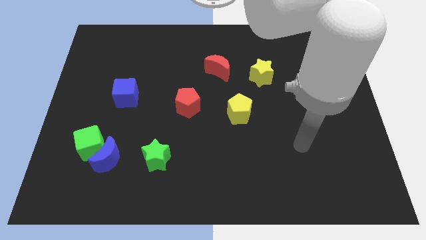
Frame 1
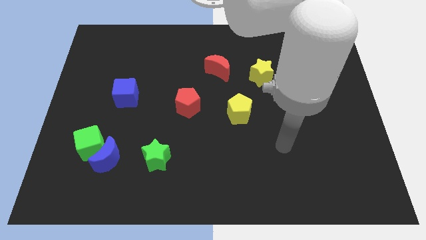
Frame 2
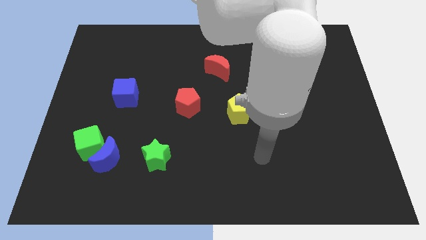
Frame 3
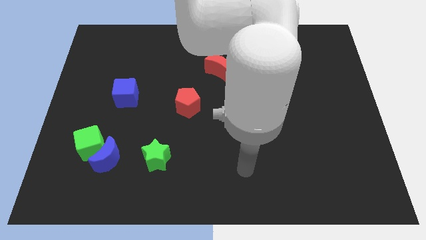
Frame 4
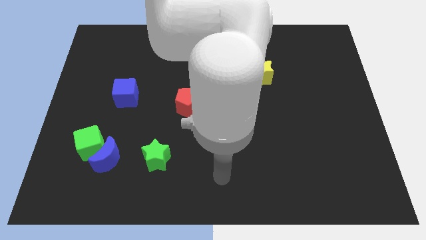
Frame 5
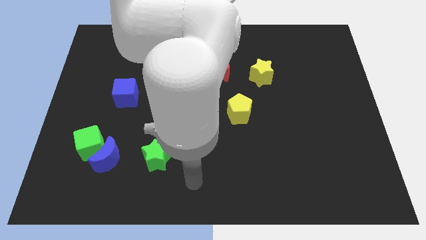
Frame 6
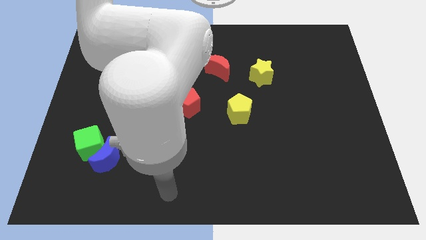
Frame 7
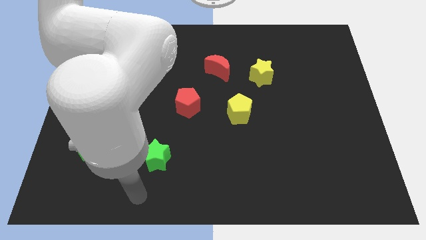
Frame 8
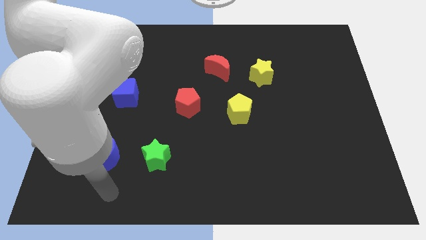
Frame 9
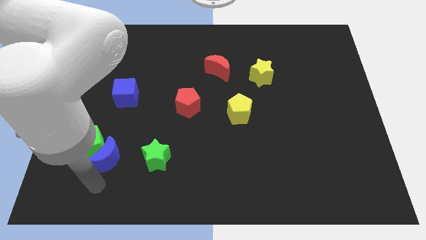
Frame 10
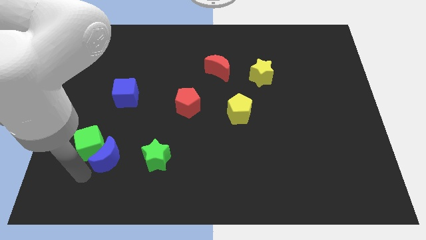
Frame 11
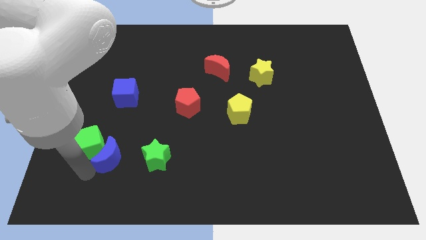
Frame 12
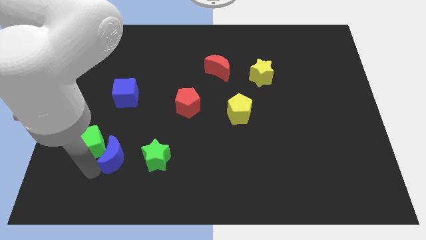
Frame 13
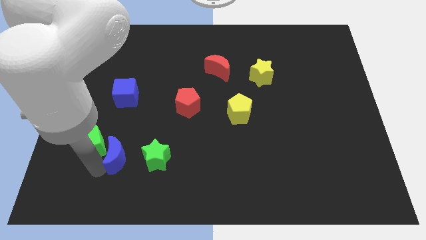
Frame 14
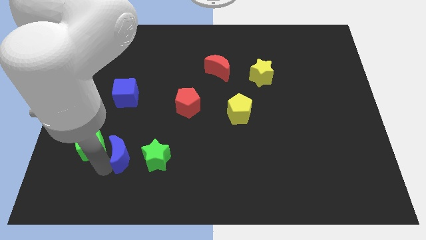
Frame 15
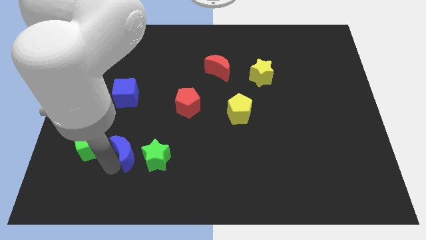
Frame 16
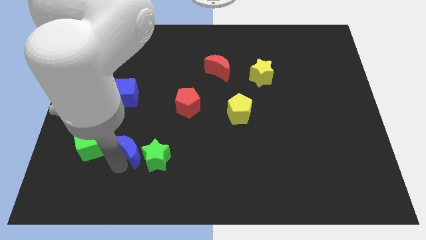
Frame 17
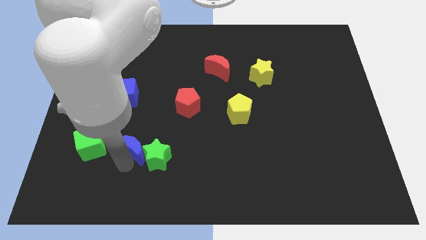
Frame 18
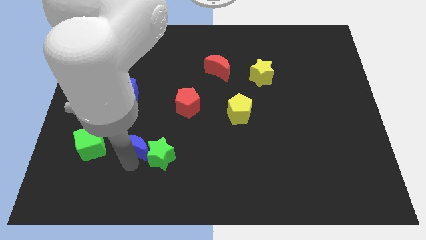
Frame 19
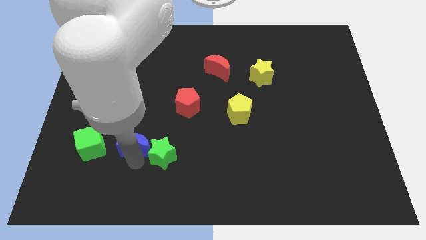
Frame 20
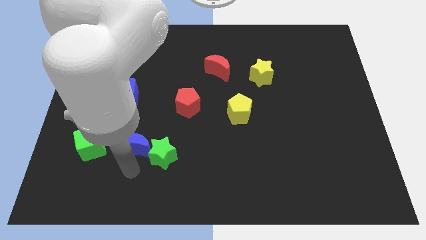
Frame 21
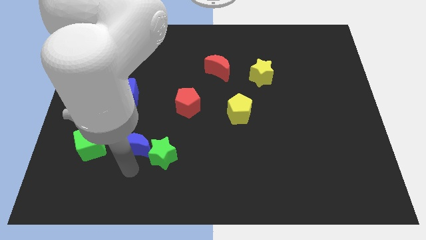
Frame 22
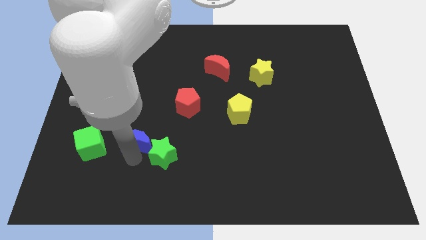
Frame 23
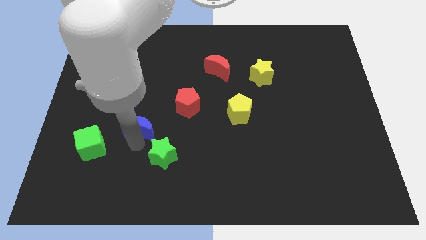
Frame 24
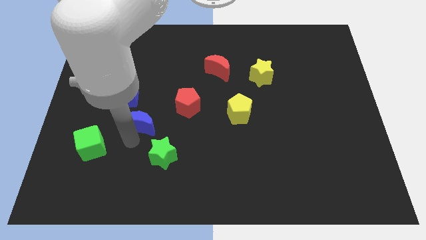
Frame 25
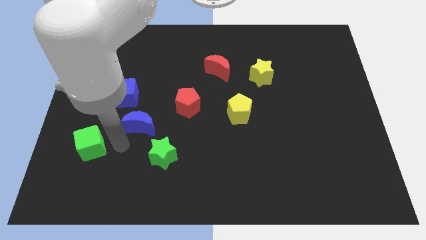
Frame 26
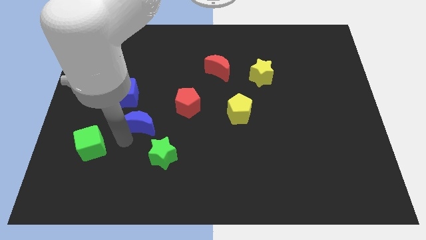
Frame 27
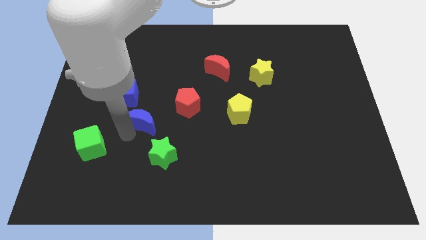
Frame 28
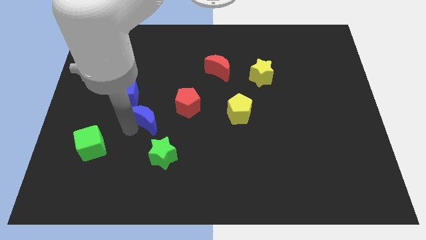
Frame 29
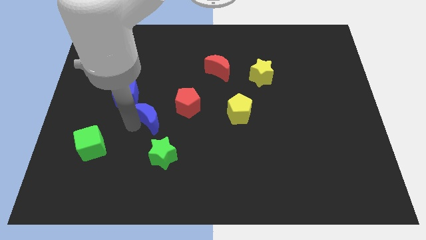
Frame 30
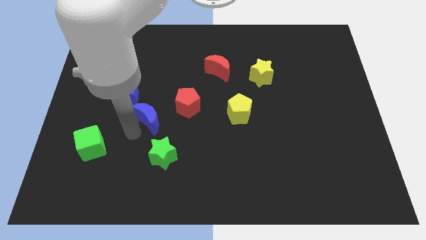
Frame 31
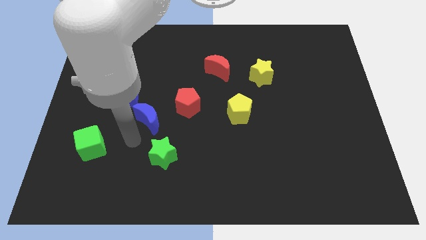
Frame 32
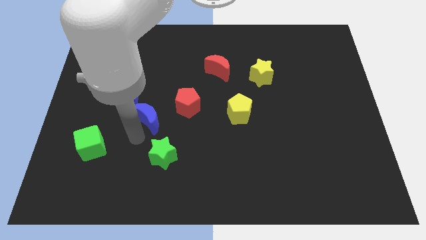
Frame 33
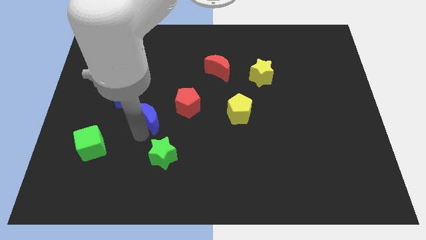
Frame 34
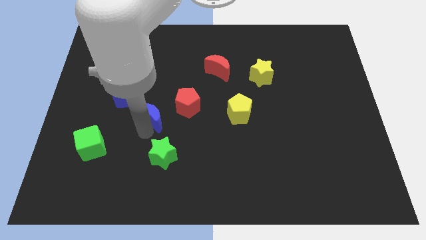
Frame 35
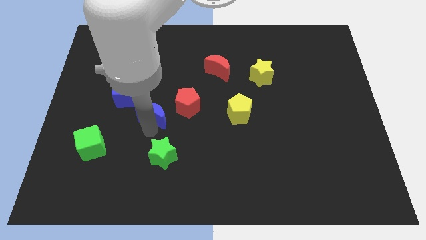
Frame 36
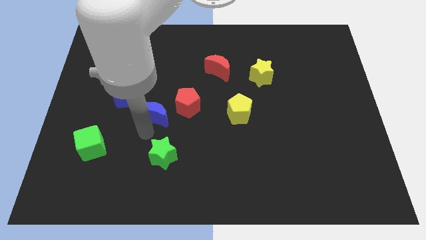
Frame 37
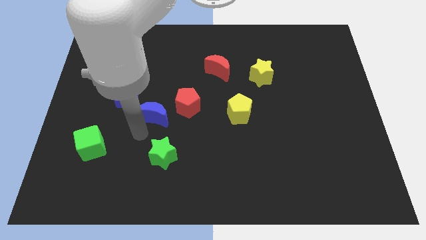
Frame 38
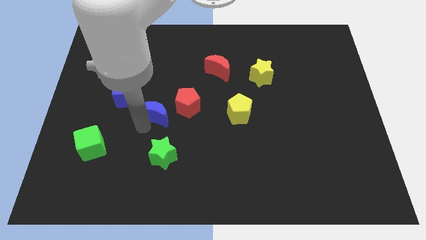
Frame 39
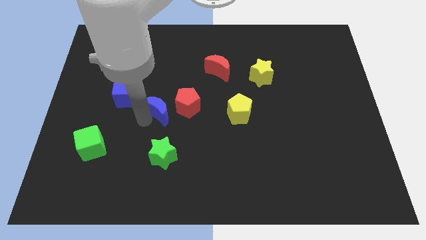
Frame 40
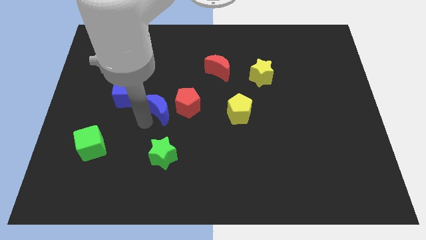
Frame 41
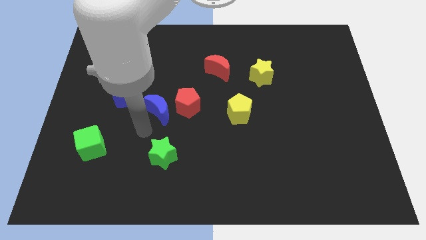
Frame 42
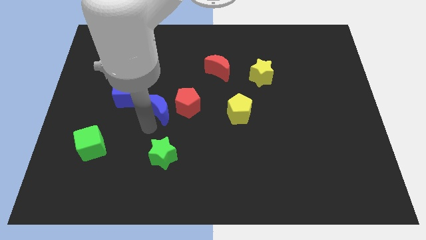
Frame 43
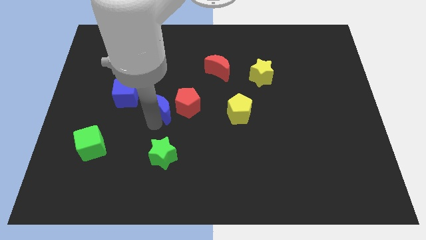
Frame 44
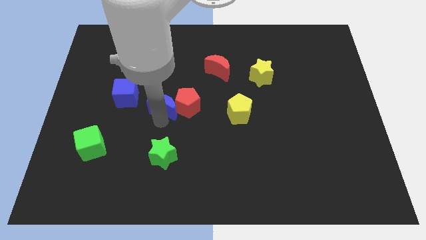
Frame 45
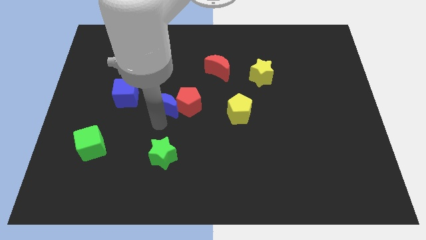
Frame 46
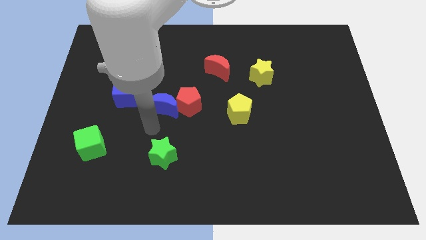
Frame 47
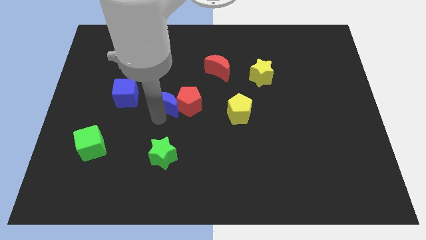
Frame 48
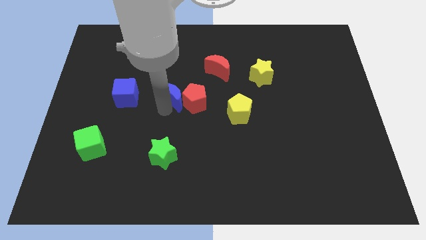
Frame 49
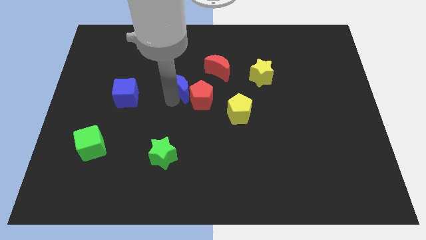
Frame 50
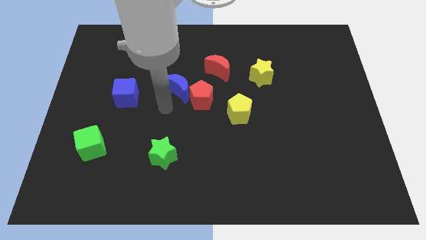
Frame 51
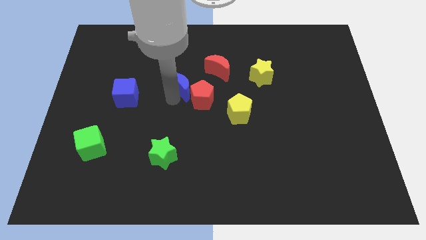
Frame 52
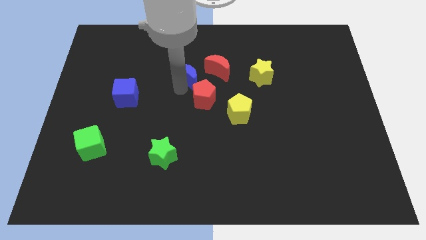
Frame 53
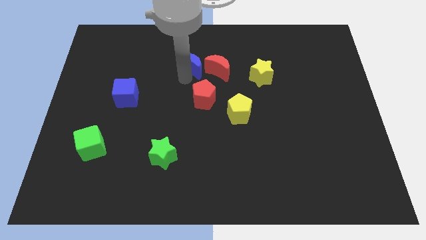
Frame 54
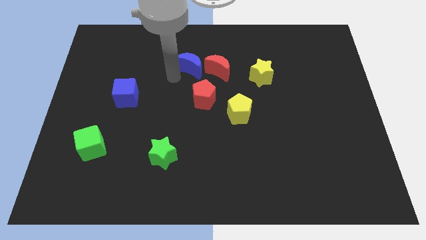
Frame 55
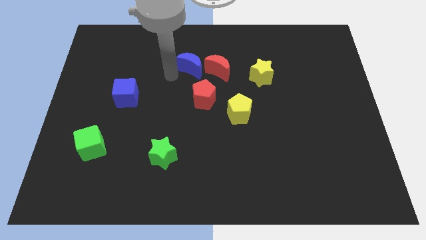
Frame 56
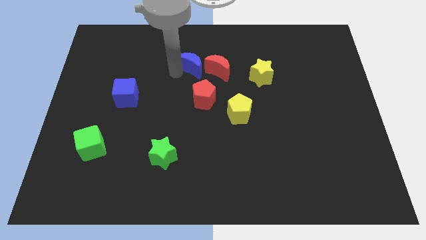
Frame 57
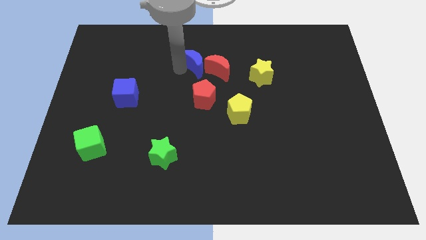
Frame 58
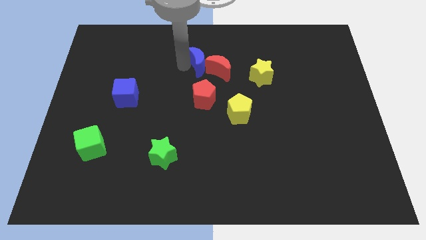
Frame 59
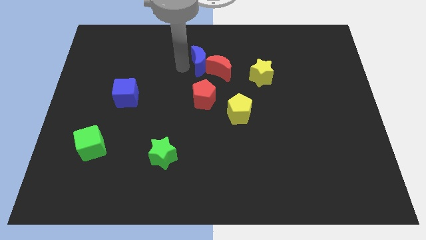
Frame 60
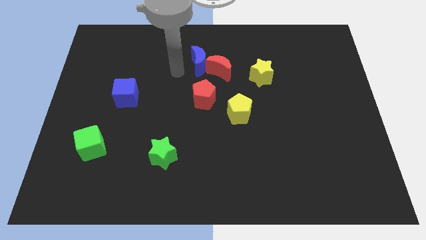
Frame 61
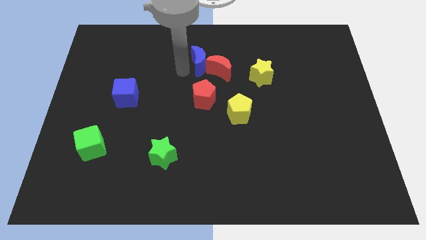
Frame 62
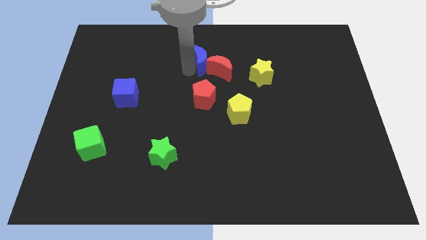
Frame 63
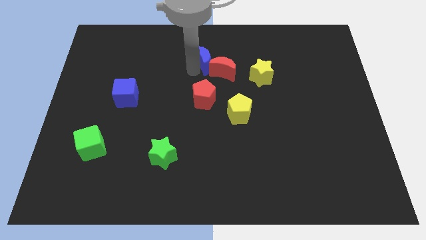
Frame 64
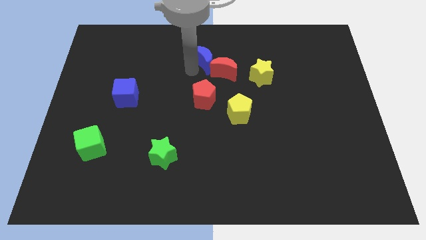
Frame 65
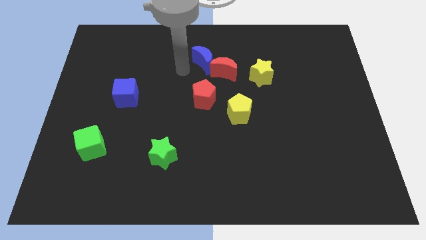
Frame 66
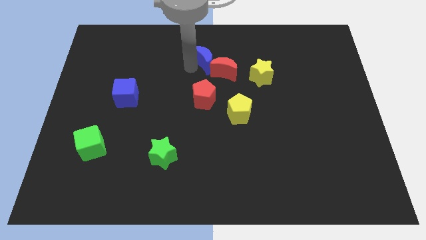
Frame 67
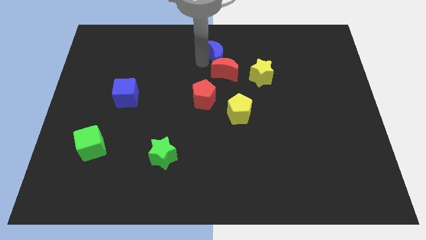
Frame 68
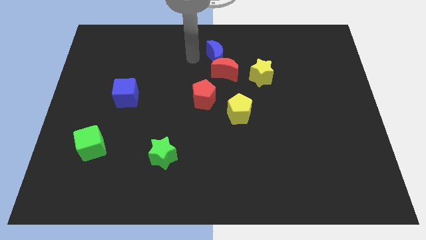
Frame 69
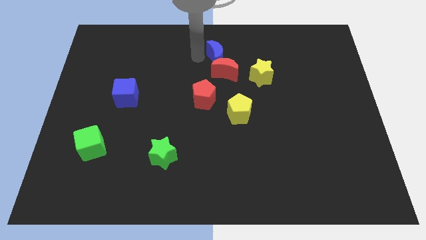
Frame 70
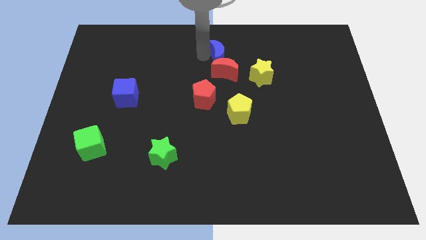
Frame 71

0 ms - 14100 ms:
put the blue moon to the top right of the red moon
